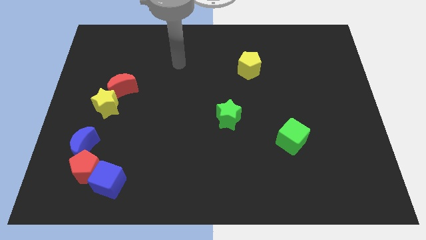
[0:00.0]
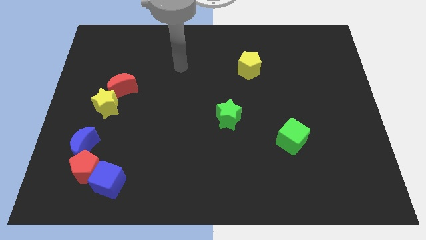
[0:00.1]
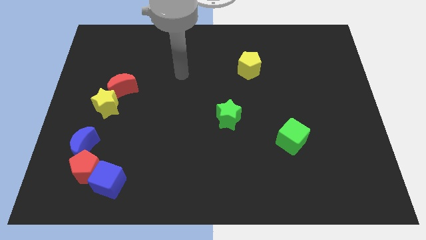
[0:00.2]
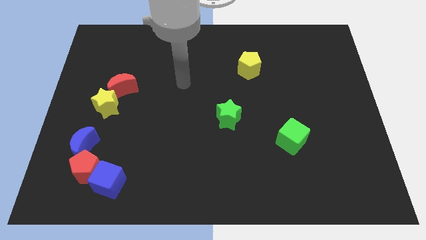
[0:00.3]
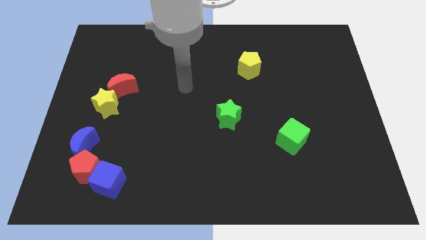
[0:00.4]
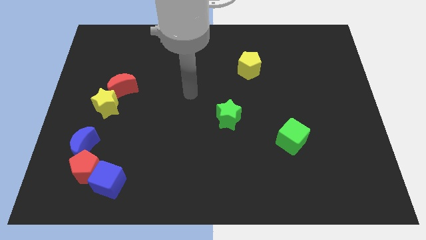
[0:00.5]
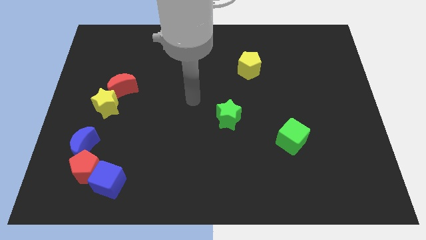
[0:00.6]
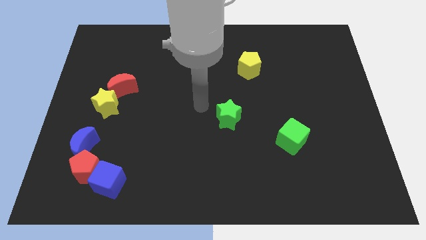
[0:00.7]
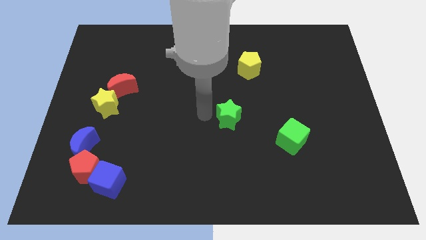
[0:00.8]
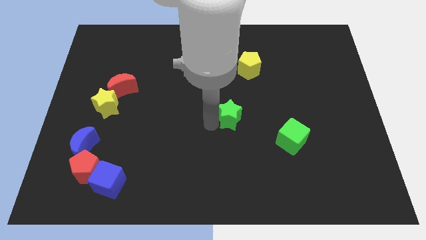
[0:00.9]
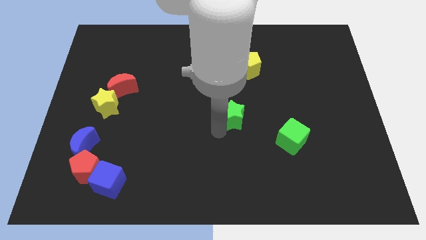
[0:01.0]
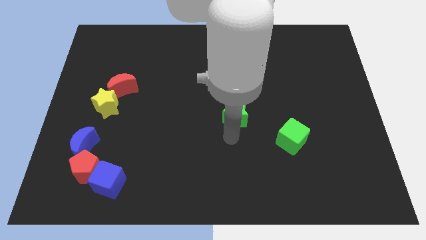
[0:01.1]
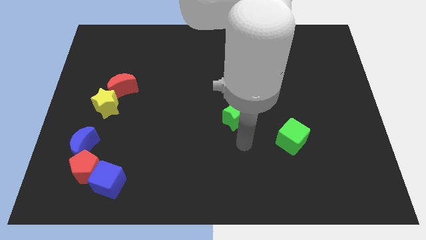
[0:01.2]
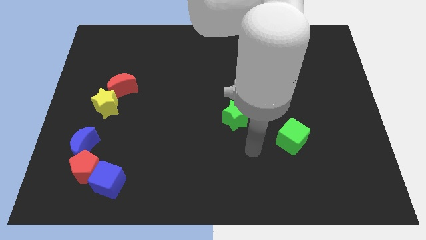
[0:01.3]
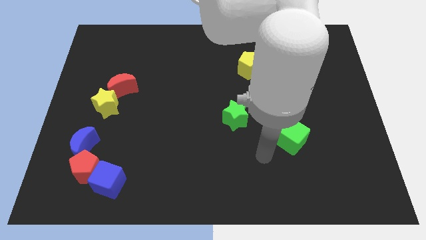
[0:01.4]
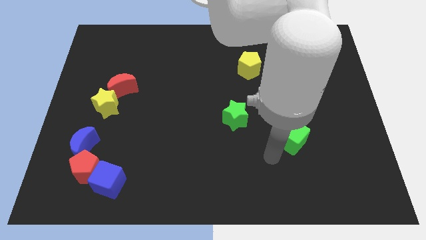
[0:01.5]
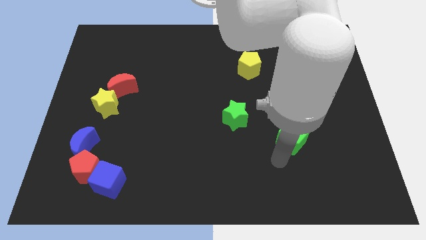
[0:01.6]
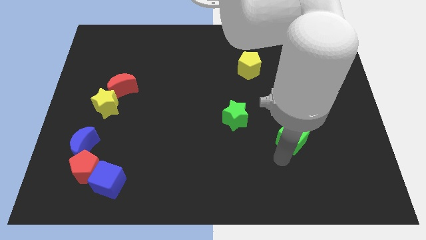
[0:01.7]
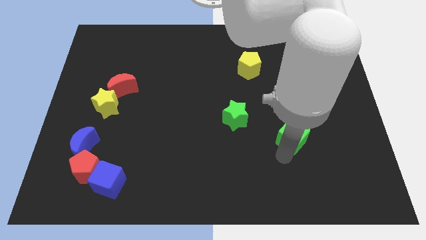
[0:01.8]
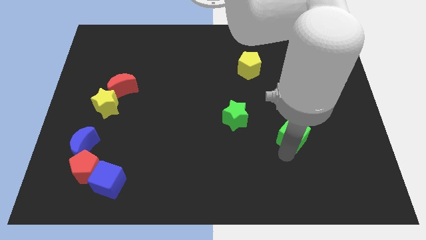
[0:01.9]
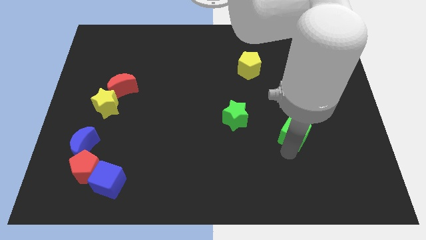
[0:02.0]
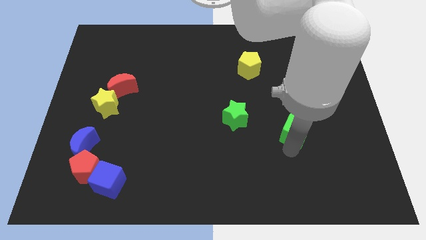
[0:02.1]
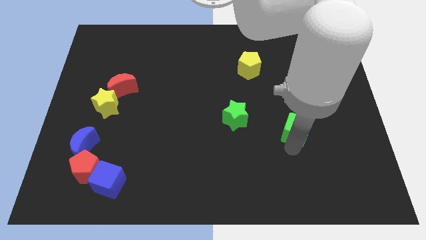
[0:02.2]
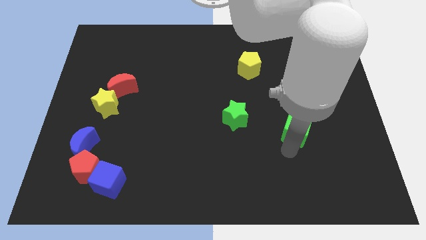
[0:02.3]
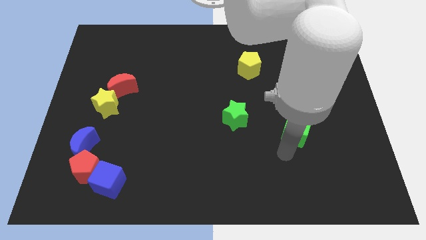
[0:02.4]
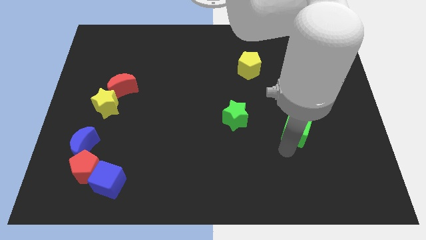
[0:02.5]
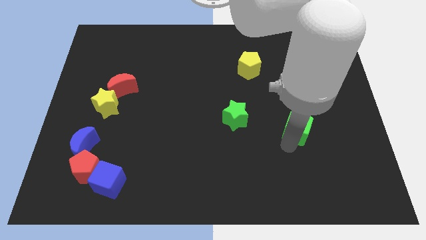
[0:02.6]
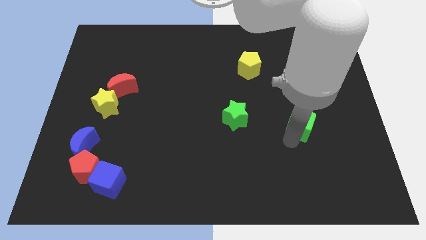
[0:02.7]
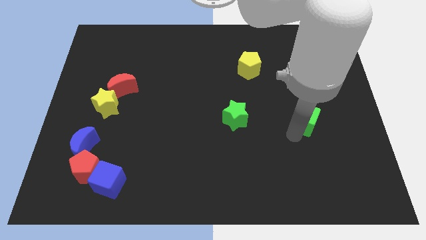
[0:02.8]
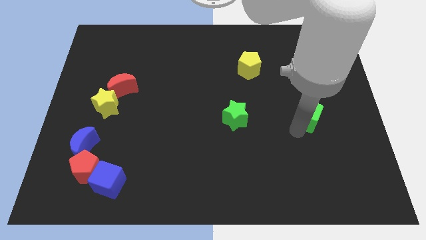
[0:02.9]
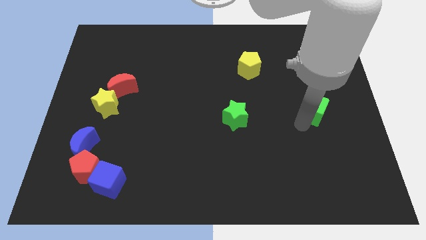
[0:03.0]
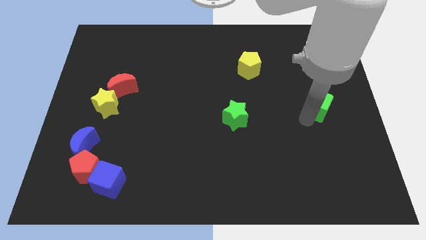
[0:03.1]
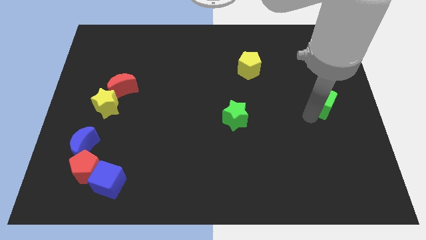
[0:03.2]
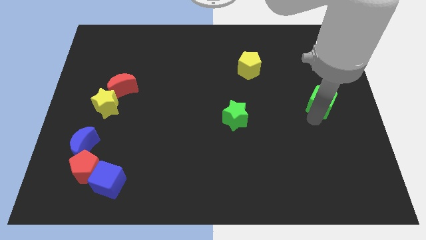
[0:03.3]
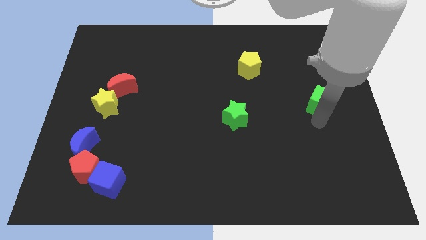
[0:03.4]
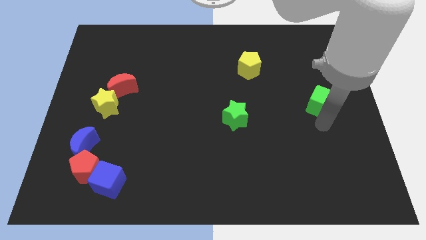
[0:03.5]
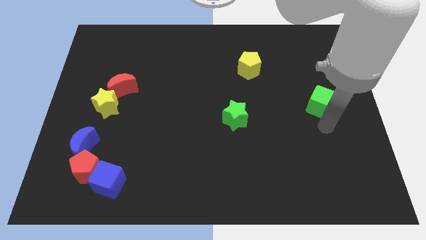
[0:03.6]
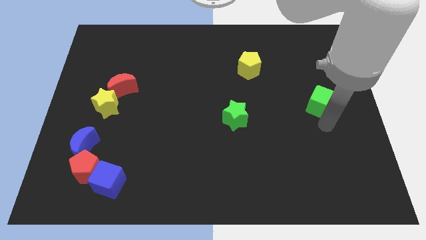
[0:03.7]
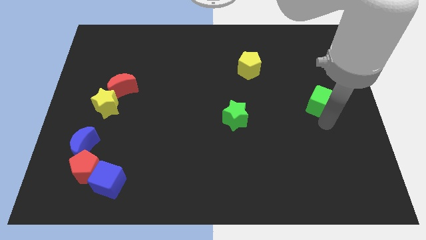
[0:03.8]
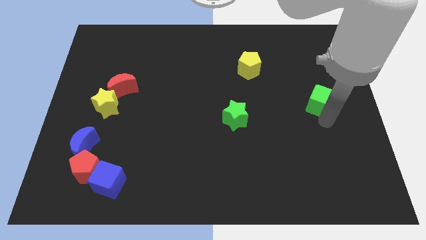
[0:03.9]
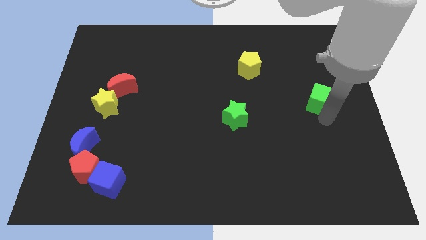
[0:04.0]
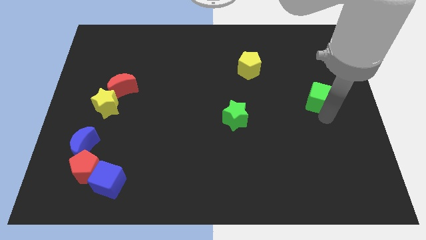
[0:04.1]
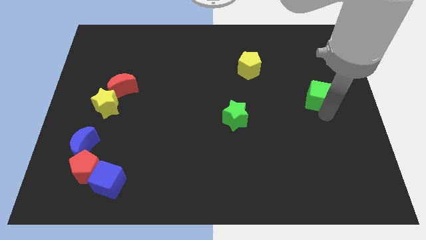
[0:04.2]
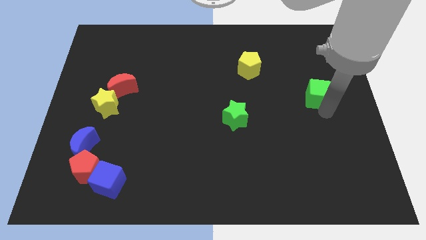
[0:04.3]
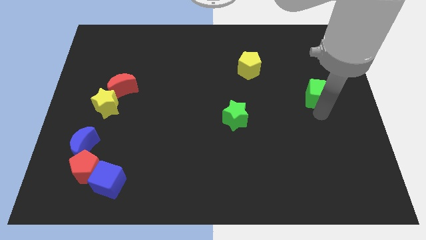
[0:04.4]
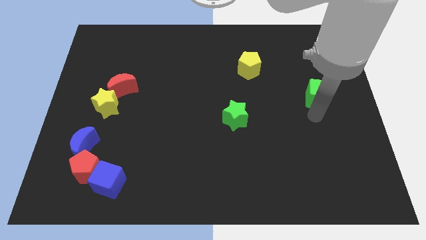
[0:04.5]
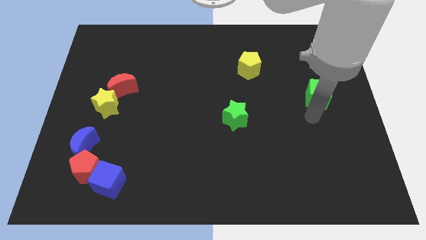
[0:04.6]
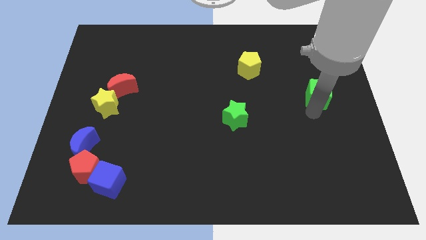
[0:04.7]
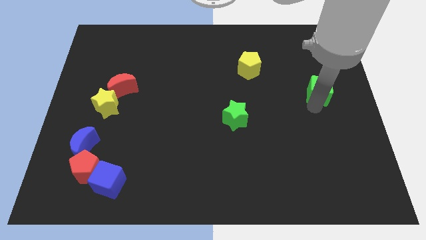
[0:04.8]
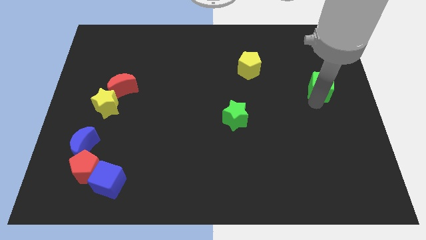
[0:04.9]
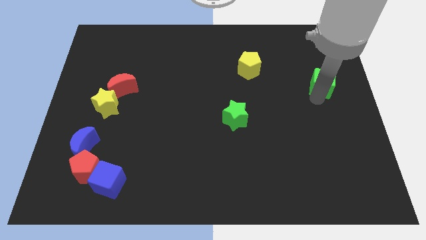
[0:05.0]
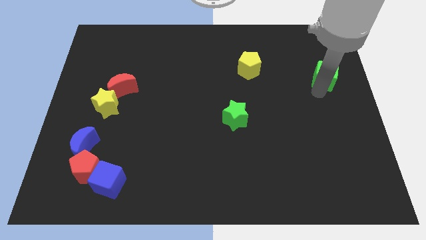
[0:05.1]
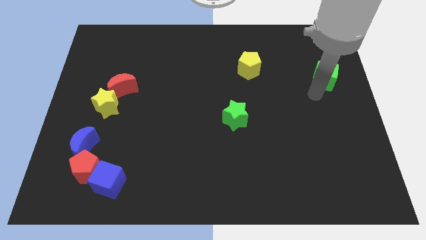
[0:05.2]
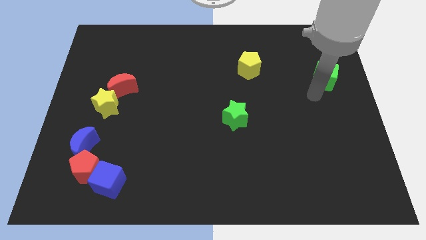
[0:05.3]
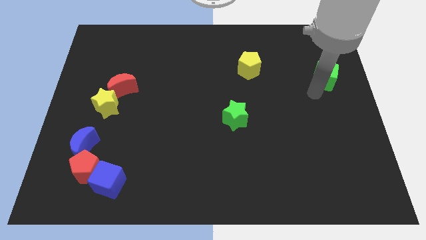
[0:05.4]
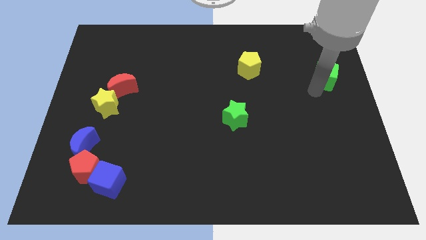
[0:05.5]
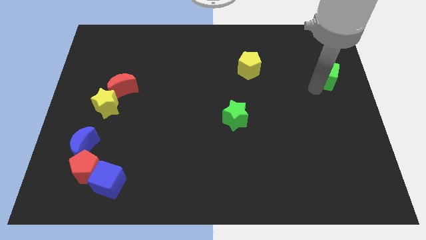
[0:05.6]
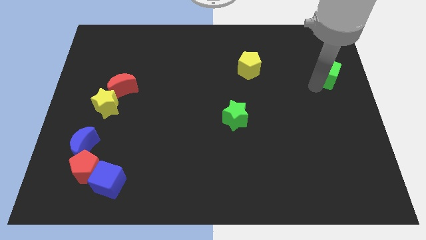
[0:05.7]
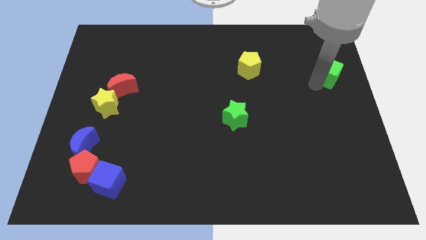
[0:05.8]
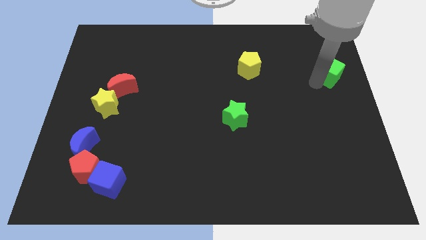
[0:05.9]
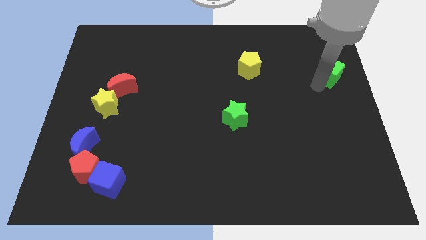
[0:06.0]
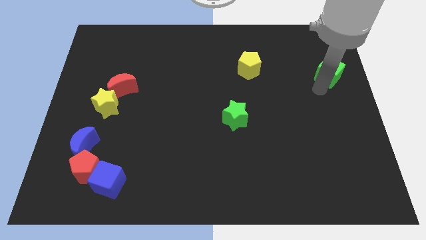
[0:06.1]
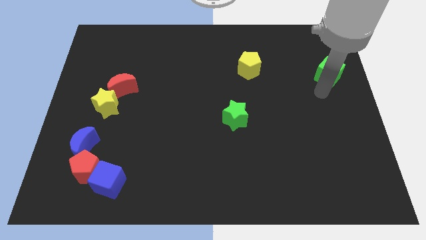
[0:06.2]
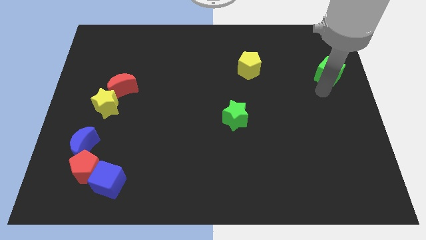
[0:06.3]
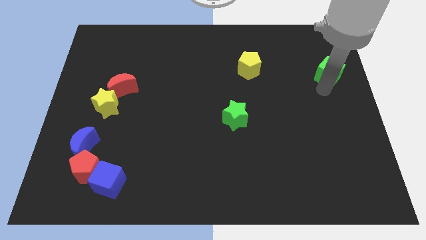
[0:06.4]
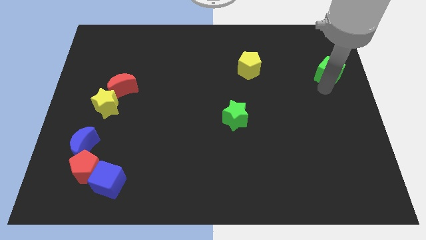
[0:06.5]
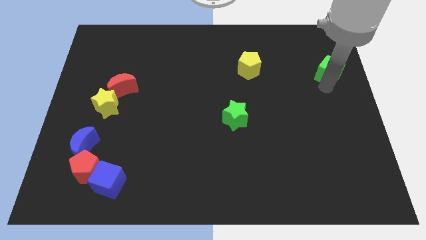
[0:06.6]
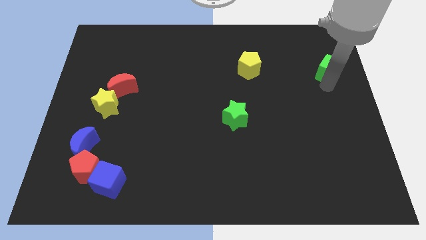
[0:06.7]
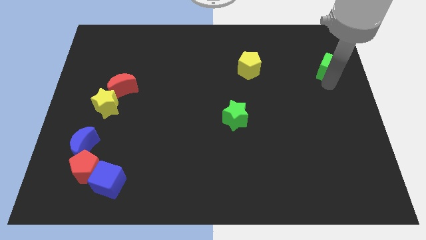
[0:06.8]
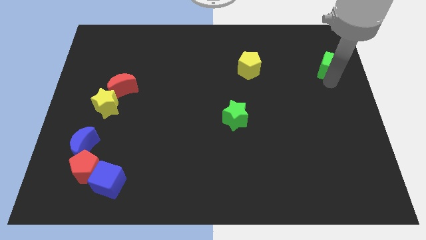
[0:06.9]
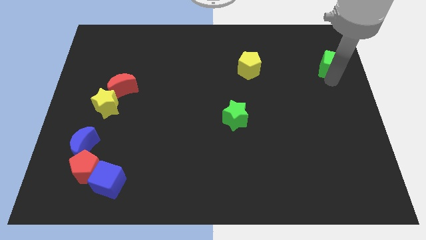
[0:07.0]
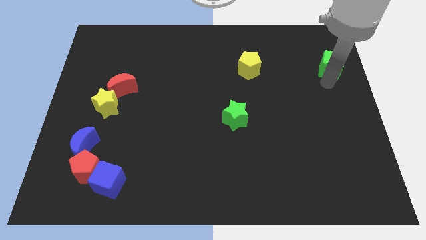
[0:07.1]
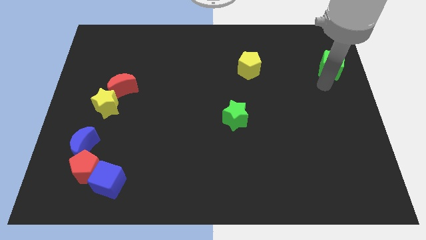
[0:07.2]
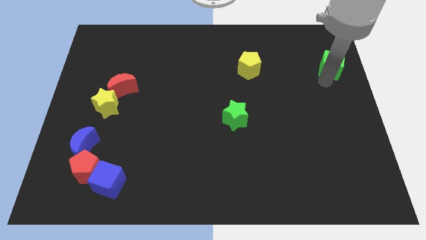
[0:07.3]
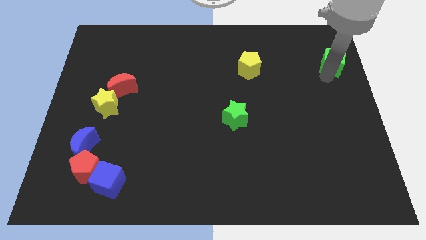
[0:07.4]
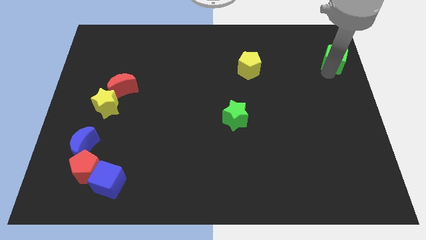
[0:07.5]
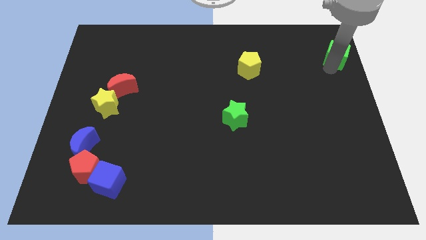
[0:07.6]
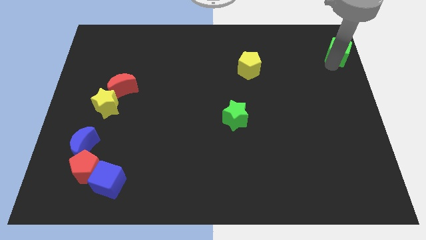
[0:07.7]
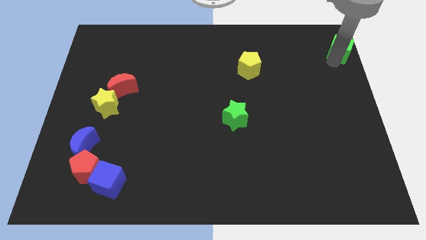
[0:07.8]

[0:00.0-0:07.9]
put the green cube to the upper right corner
